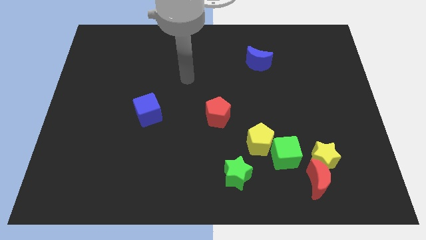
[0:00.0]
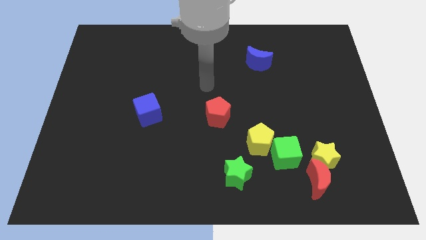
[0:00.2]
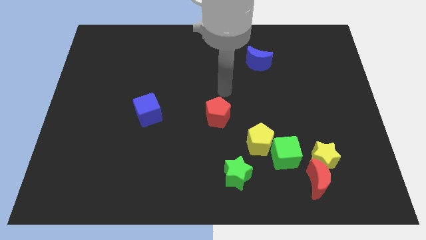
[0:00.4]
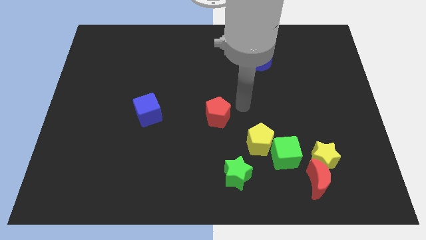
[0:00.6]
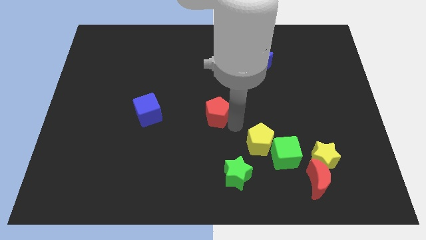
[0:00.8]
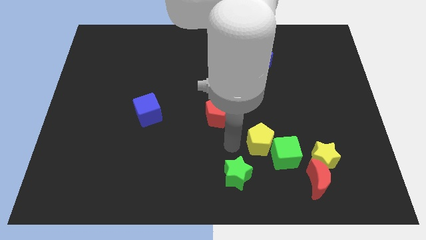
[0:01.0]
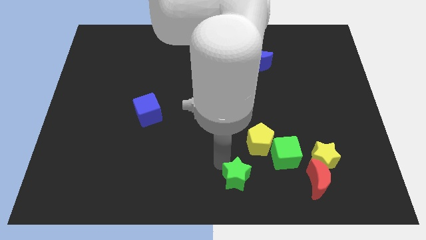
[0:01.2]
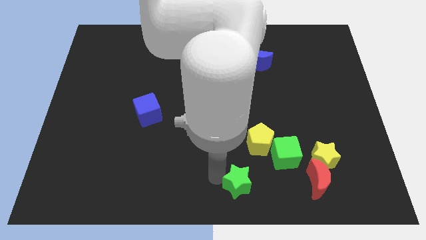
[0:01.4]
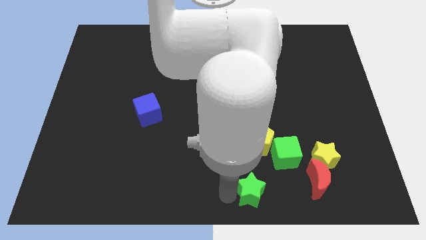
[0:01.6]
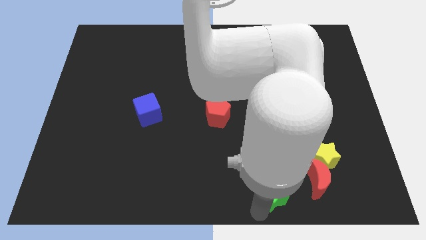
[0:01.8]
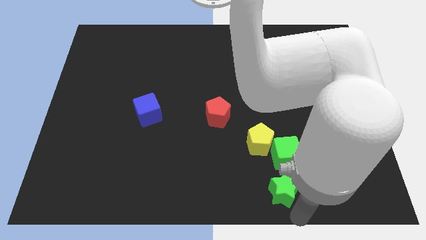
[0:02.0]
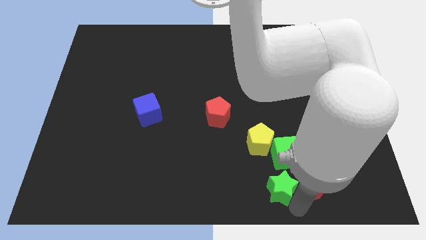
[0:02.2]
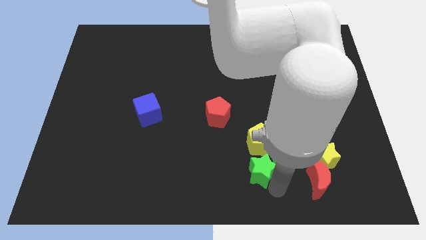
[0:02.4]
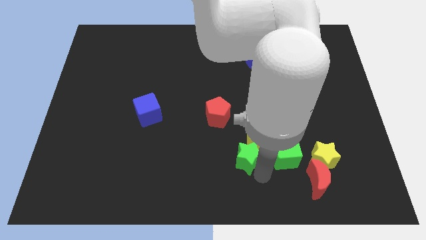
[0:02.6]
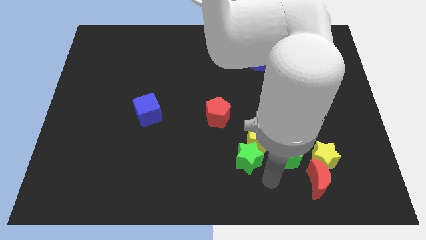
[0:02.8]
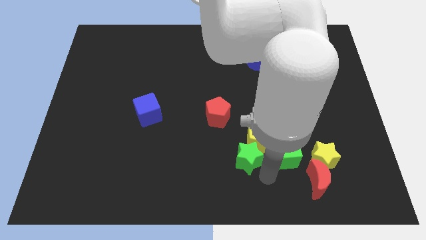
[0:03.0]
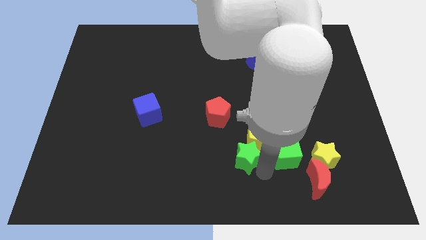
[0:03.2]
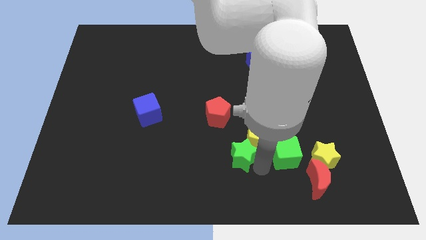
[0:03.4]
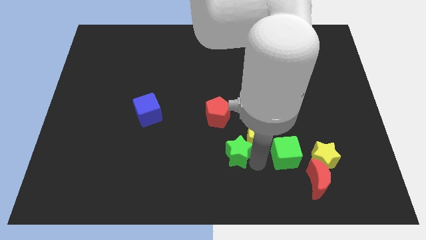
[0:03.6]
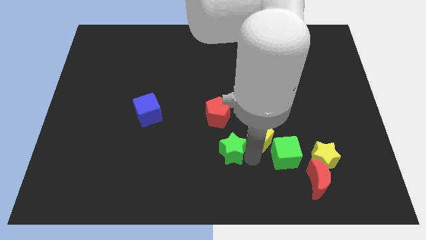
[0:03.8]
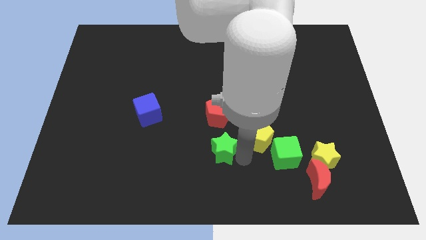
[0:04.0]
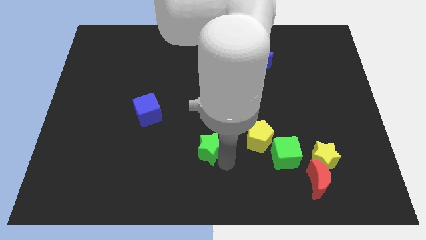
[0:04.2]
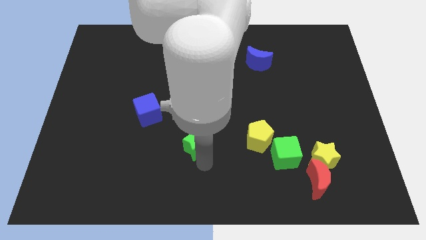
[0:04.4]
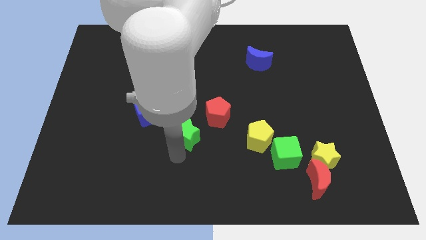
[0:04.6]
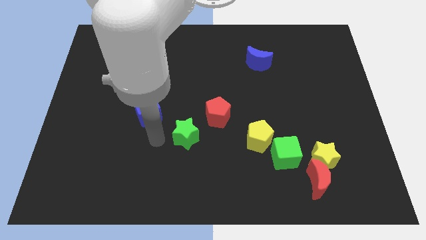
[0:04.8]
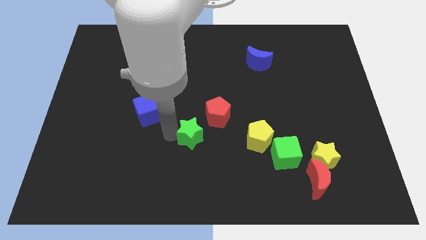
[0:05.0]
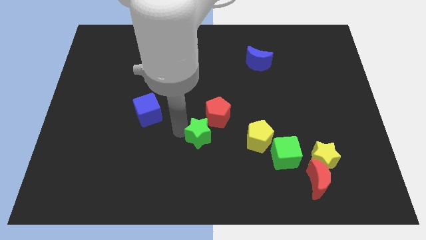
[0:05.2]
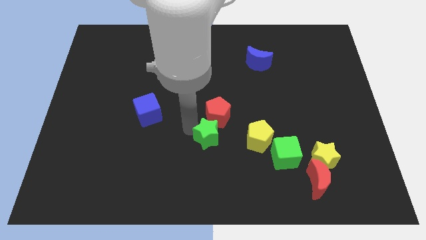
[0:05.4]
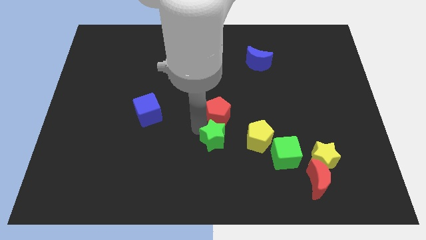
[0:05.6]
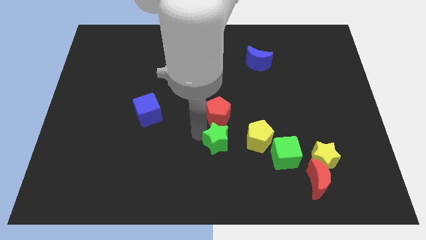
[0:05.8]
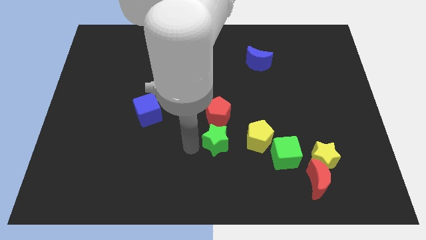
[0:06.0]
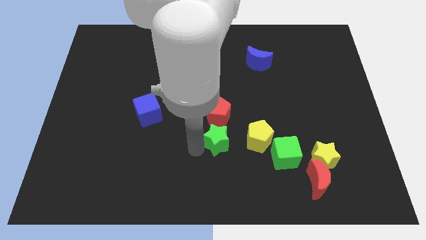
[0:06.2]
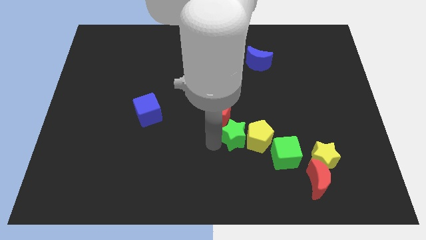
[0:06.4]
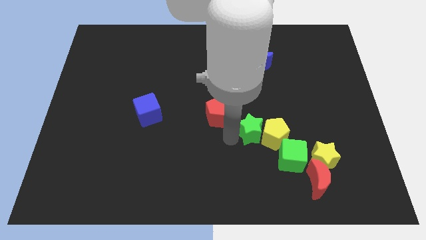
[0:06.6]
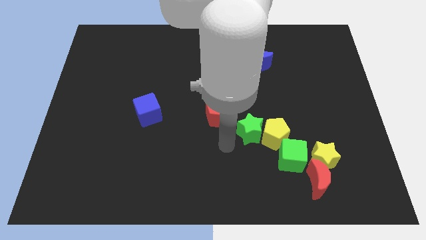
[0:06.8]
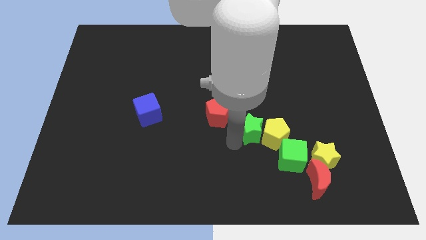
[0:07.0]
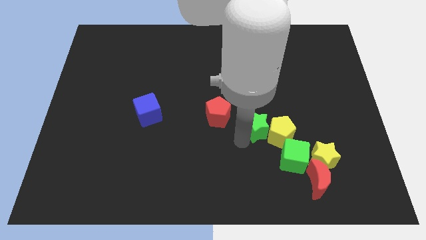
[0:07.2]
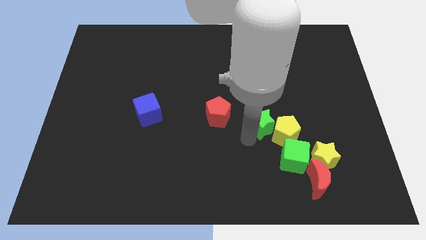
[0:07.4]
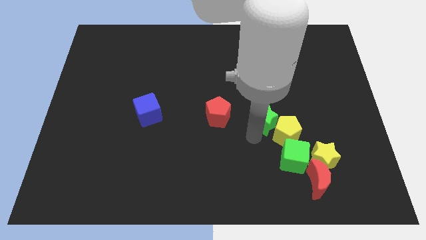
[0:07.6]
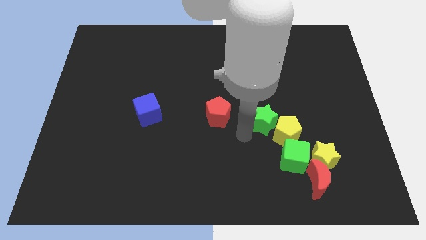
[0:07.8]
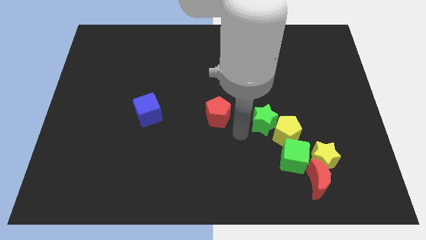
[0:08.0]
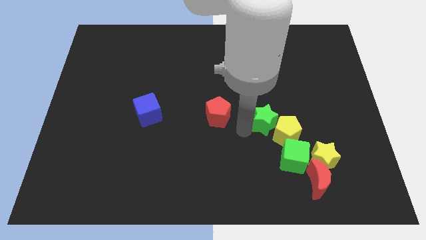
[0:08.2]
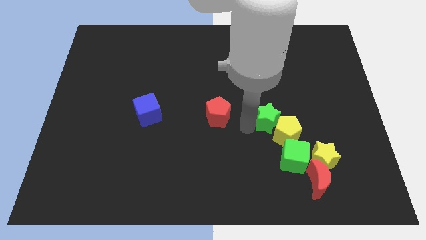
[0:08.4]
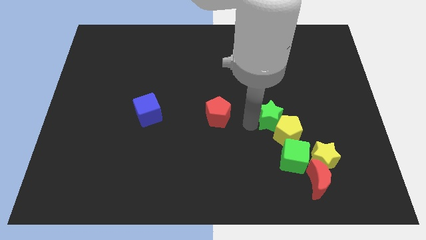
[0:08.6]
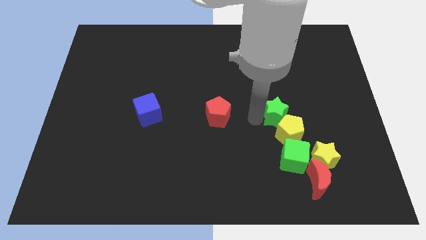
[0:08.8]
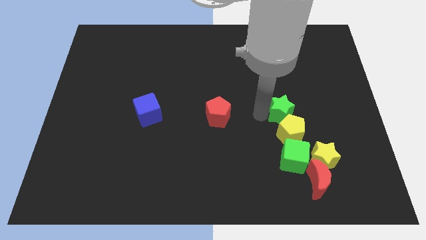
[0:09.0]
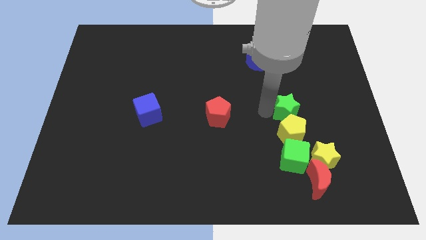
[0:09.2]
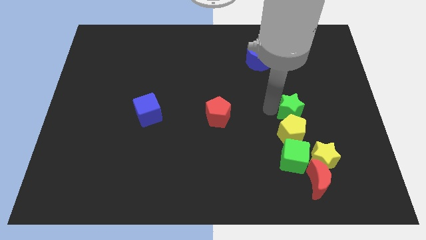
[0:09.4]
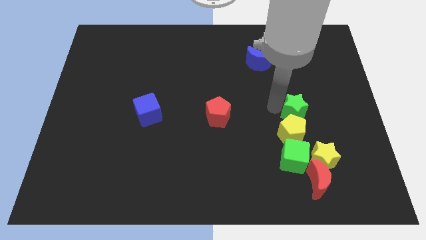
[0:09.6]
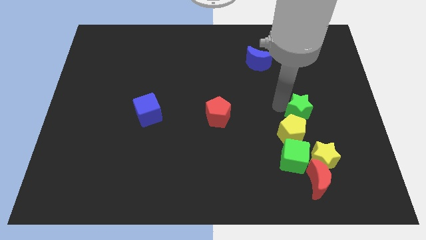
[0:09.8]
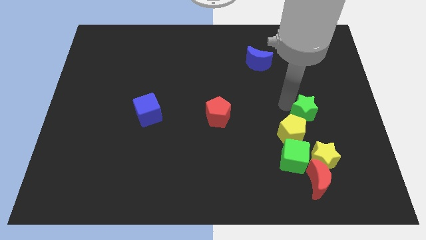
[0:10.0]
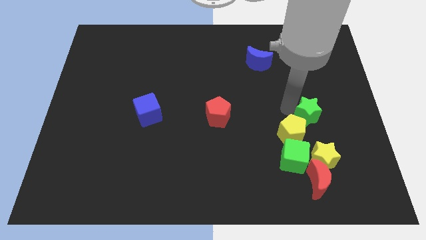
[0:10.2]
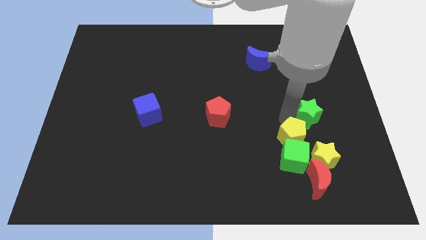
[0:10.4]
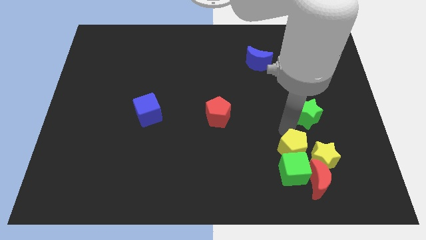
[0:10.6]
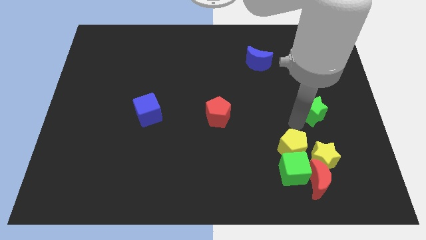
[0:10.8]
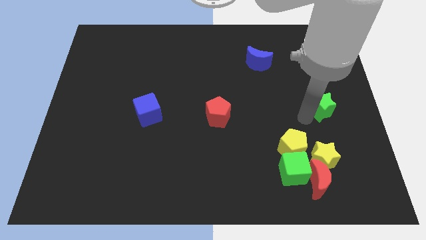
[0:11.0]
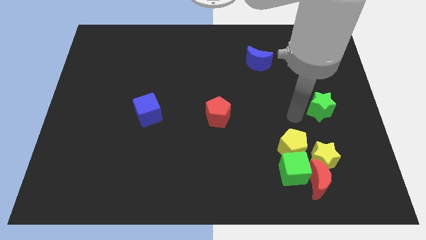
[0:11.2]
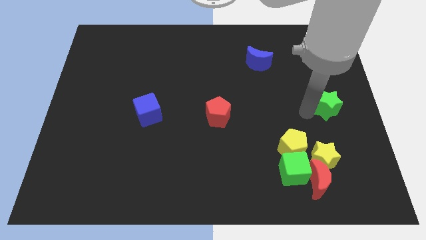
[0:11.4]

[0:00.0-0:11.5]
push the green star to the right side of the board

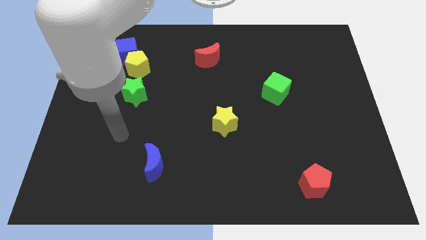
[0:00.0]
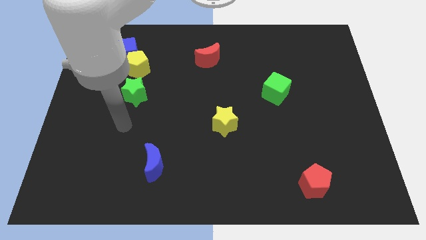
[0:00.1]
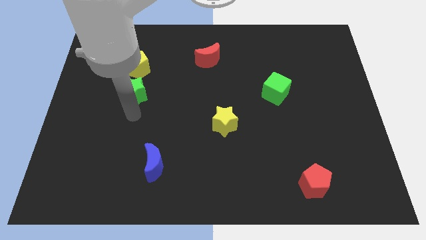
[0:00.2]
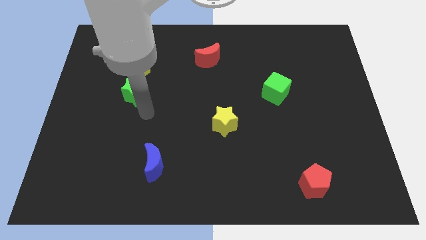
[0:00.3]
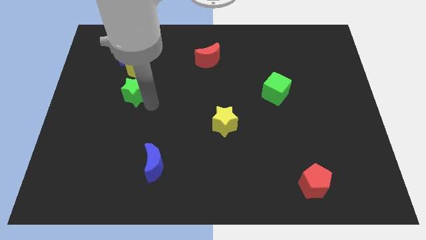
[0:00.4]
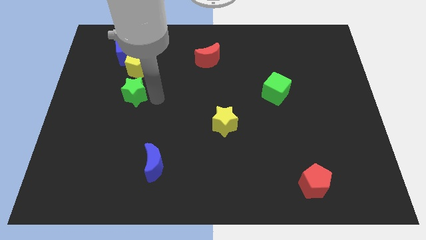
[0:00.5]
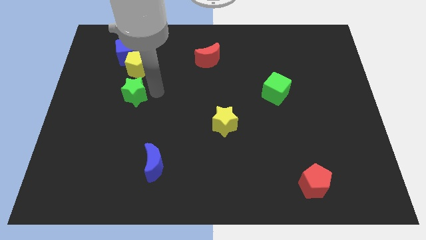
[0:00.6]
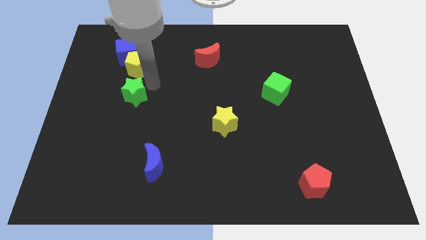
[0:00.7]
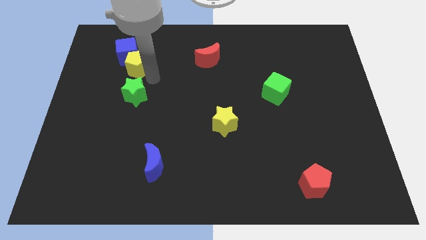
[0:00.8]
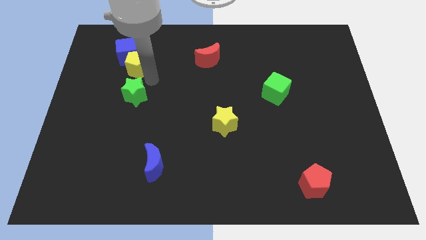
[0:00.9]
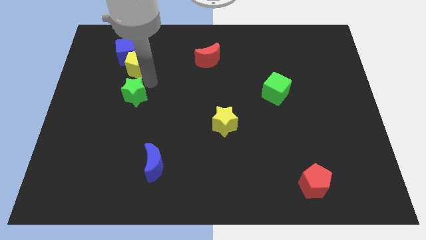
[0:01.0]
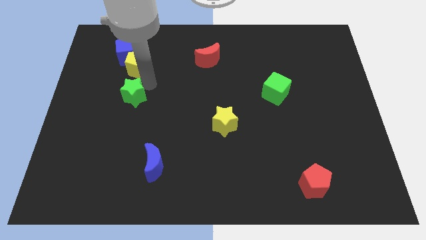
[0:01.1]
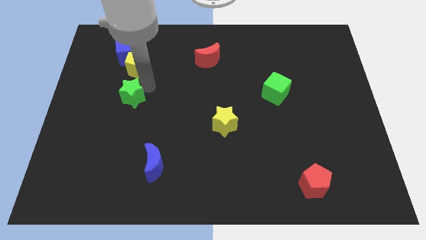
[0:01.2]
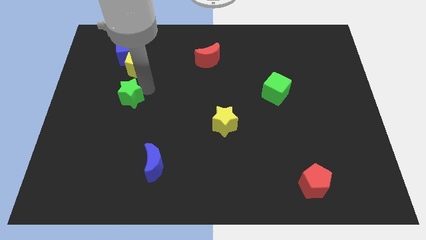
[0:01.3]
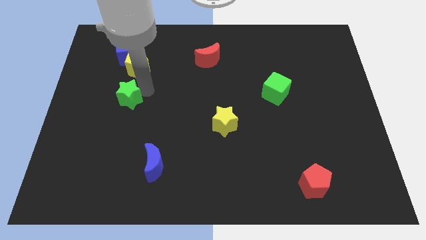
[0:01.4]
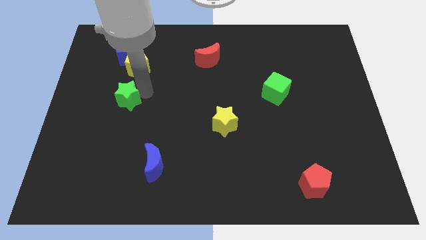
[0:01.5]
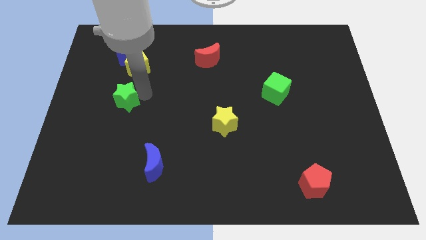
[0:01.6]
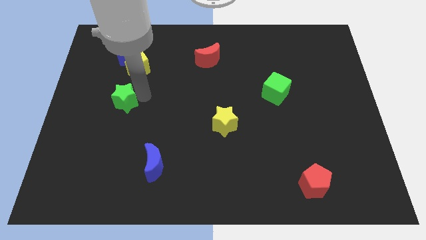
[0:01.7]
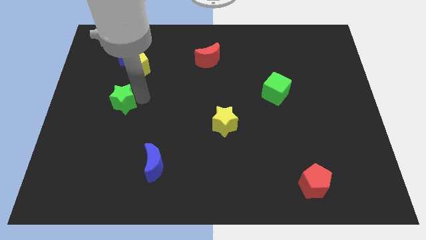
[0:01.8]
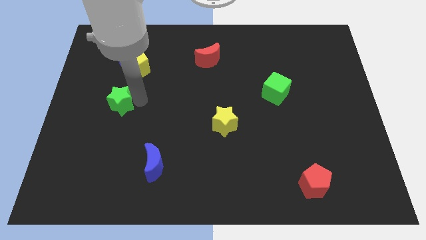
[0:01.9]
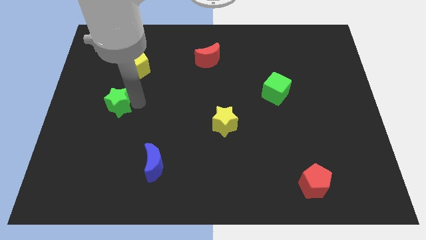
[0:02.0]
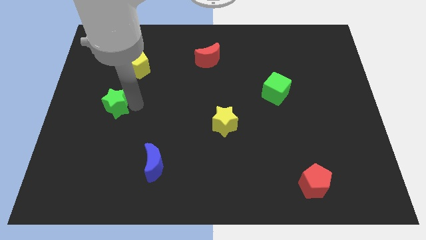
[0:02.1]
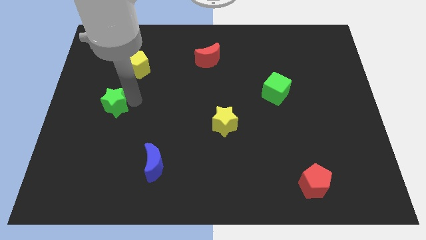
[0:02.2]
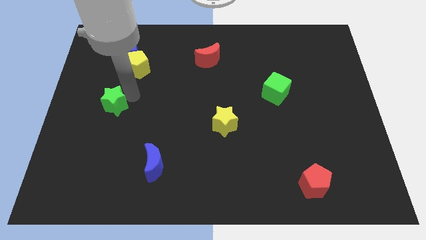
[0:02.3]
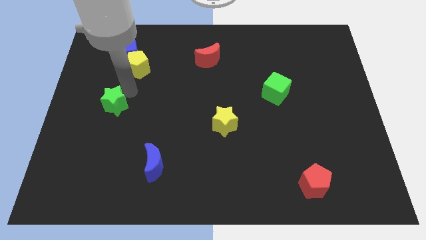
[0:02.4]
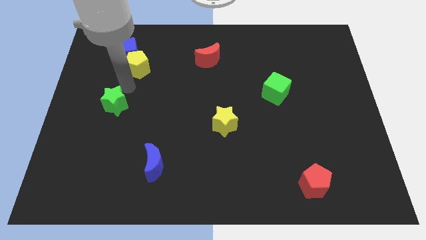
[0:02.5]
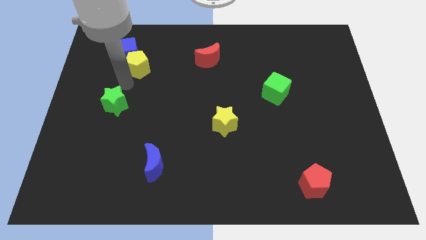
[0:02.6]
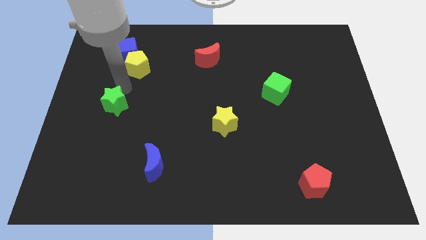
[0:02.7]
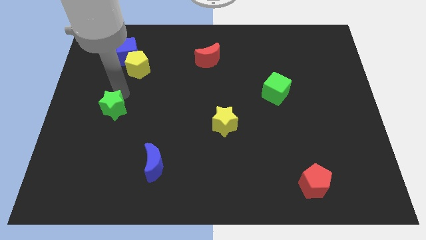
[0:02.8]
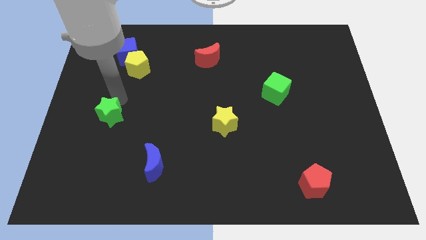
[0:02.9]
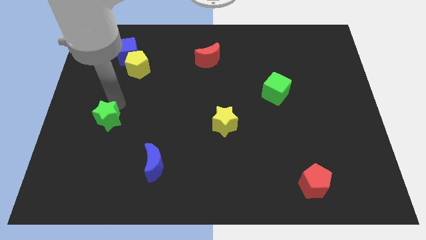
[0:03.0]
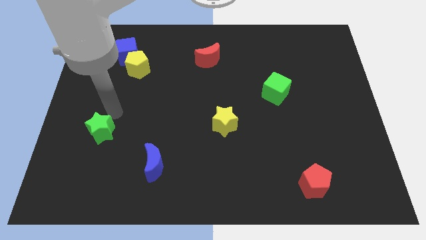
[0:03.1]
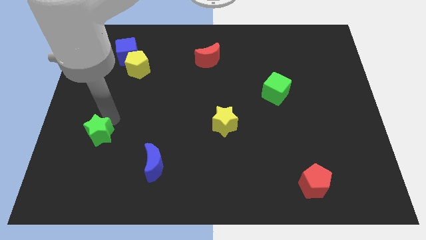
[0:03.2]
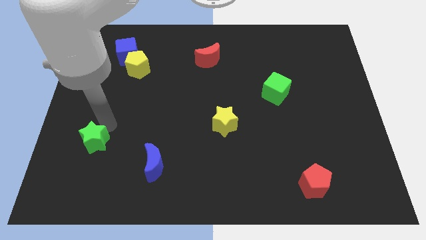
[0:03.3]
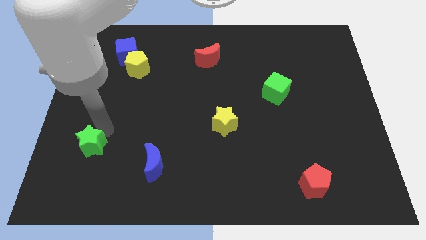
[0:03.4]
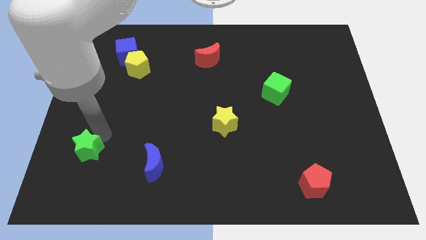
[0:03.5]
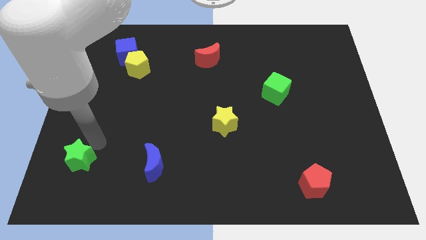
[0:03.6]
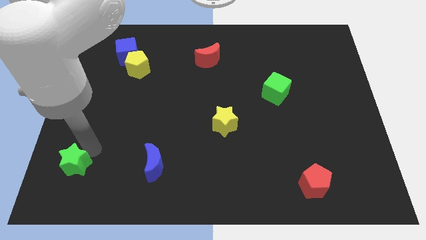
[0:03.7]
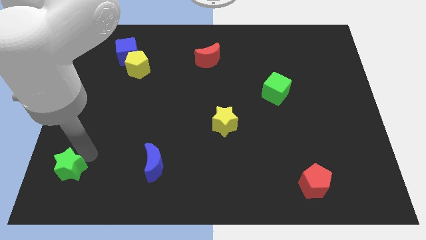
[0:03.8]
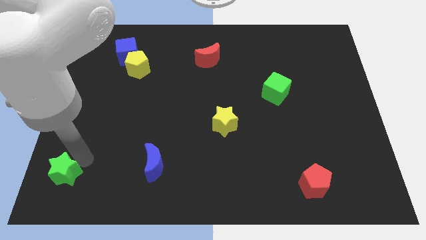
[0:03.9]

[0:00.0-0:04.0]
push the green star to the bottom left
